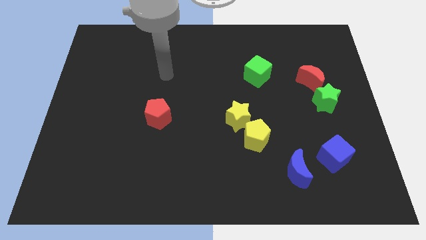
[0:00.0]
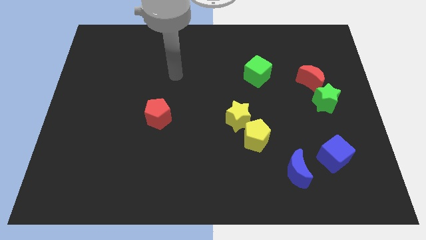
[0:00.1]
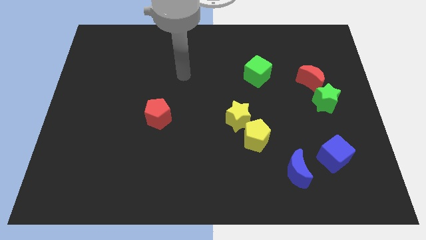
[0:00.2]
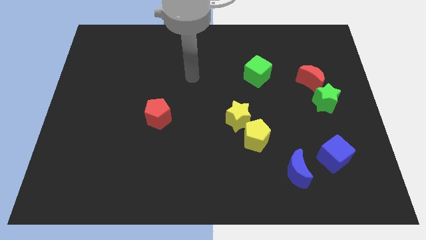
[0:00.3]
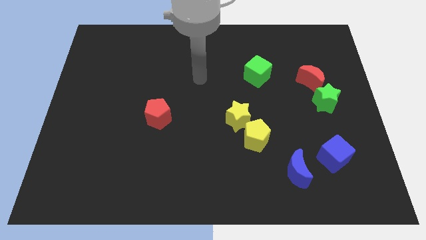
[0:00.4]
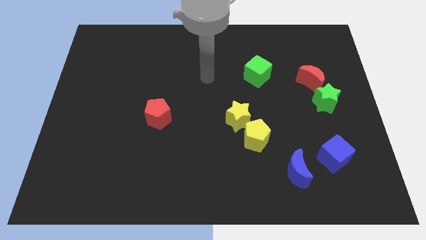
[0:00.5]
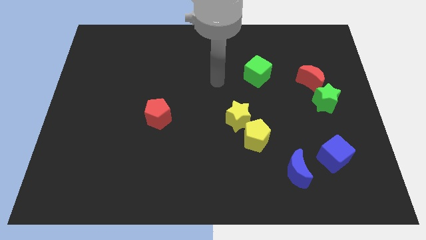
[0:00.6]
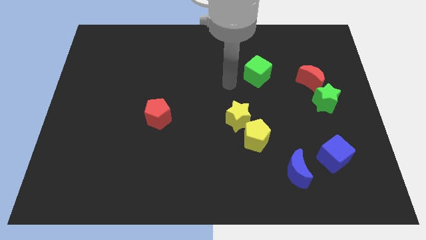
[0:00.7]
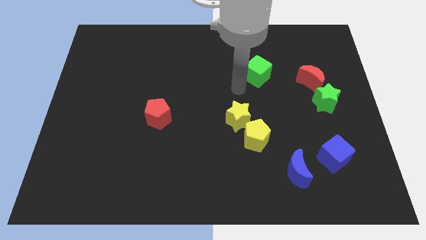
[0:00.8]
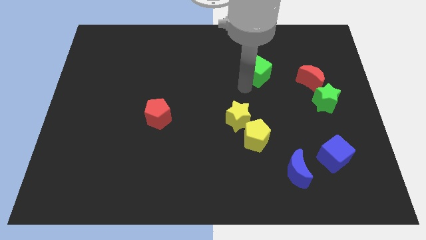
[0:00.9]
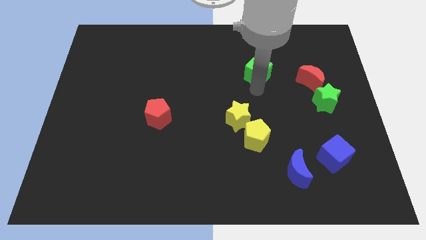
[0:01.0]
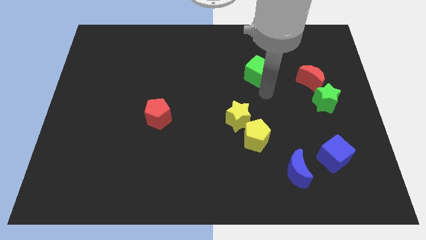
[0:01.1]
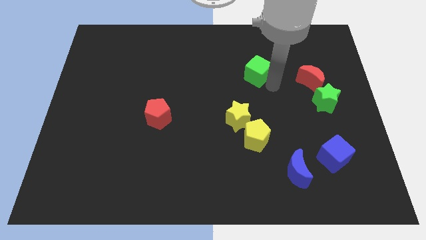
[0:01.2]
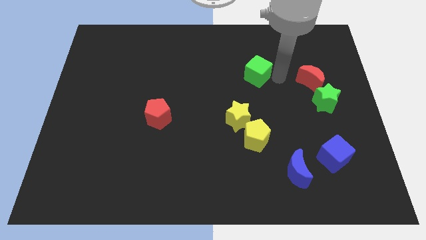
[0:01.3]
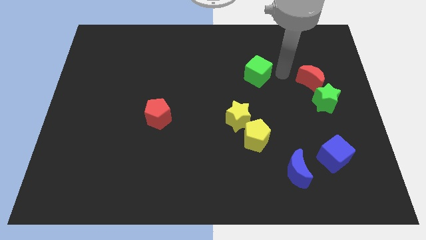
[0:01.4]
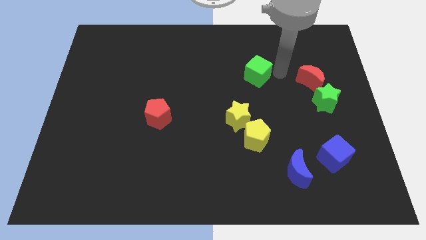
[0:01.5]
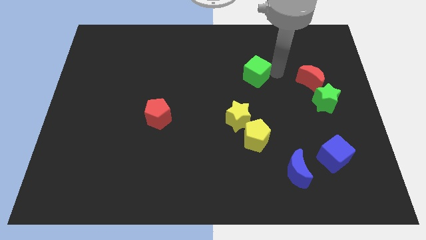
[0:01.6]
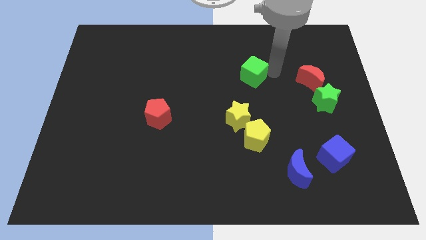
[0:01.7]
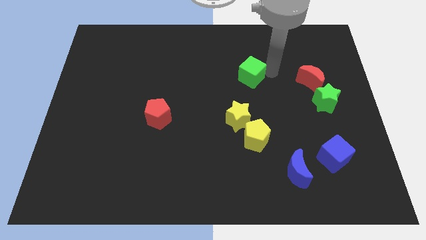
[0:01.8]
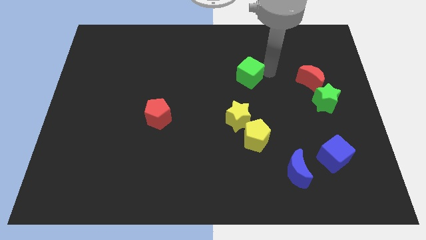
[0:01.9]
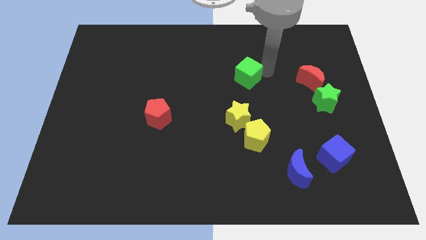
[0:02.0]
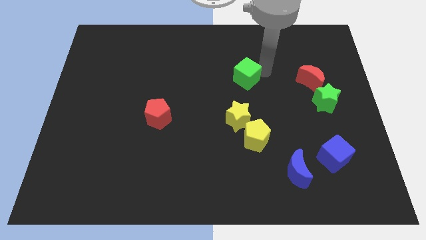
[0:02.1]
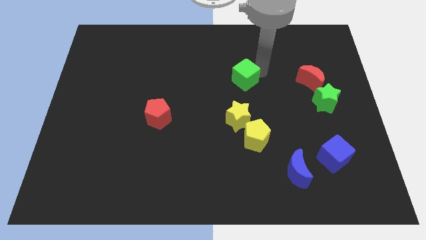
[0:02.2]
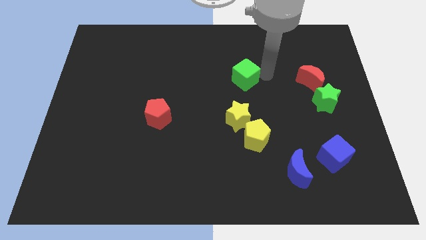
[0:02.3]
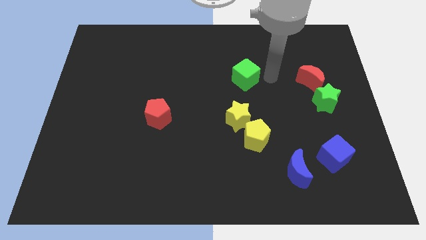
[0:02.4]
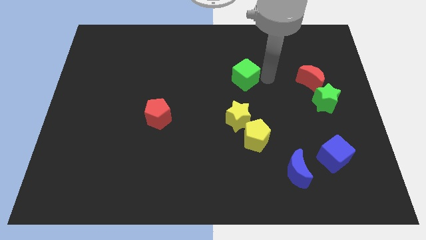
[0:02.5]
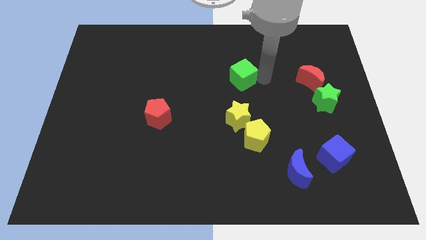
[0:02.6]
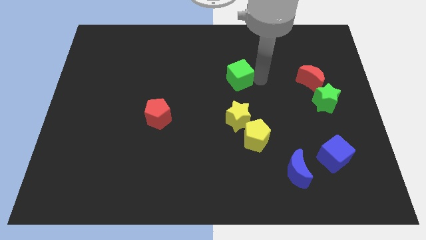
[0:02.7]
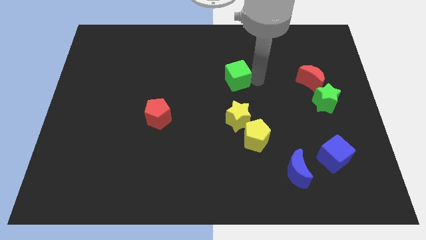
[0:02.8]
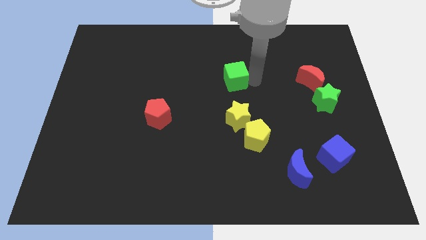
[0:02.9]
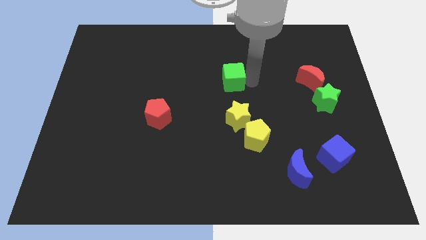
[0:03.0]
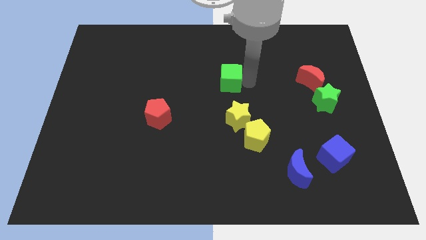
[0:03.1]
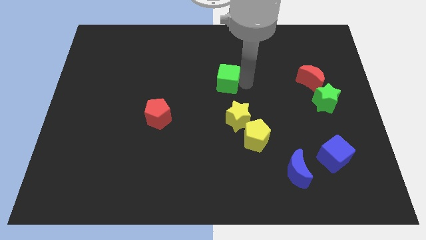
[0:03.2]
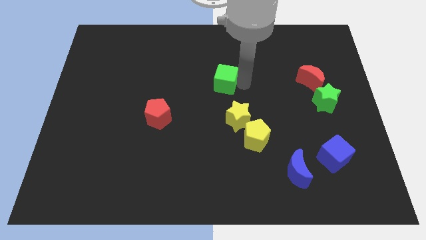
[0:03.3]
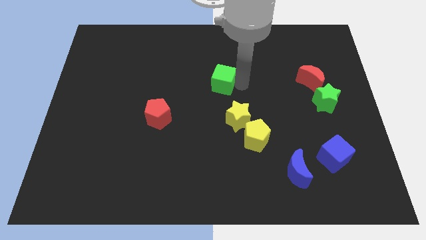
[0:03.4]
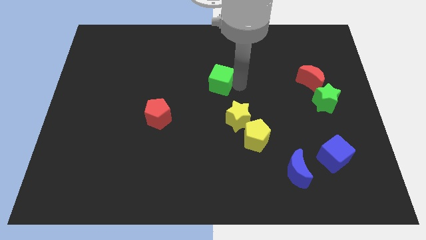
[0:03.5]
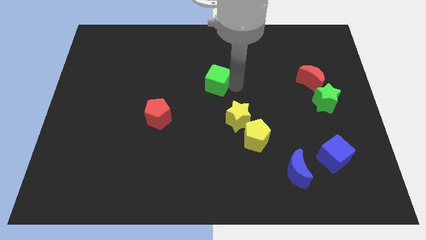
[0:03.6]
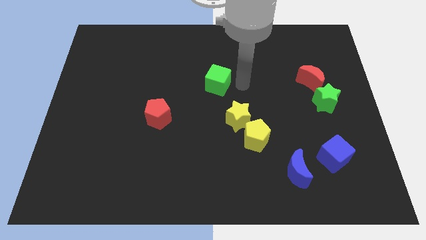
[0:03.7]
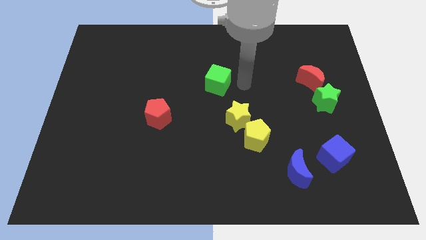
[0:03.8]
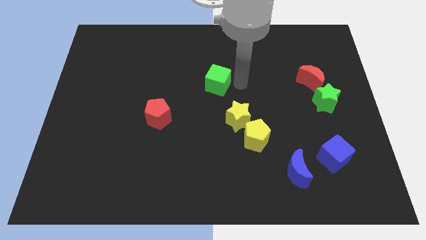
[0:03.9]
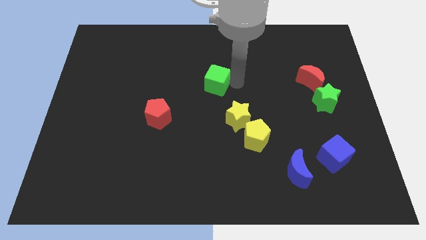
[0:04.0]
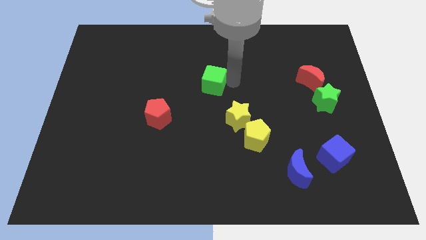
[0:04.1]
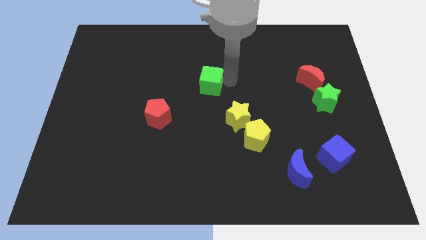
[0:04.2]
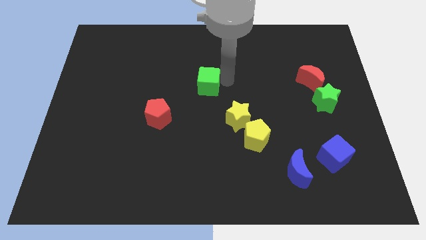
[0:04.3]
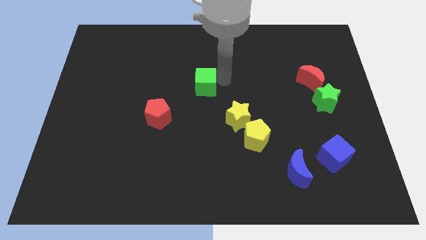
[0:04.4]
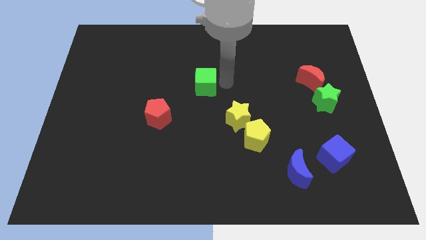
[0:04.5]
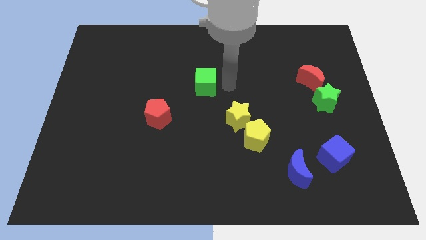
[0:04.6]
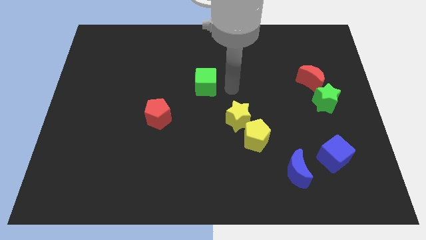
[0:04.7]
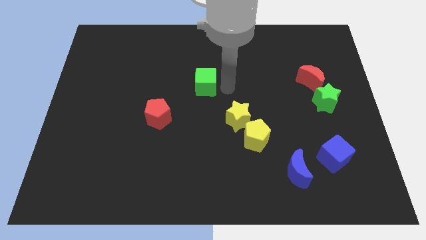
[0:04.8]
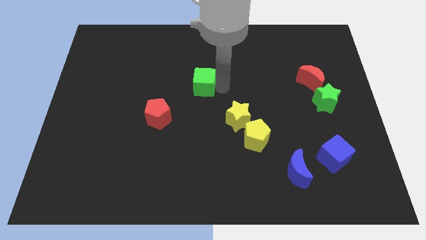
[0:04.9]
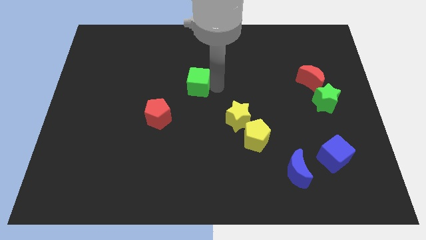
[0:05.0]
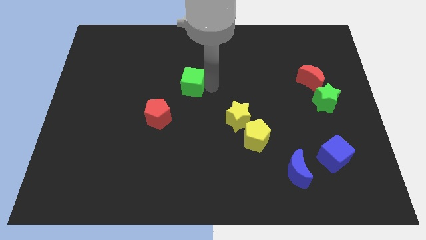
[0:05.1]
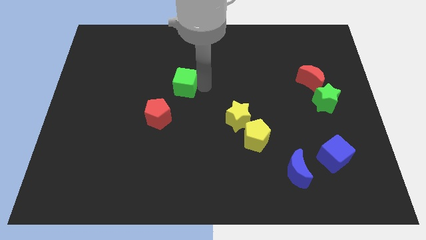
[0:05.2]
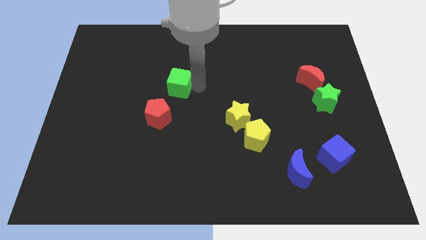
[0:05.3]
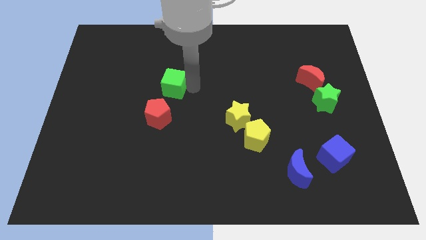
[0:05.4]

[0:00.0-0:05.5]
slide the green cube left

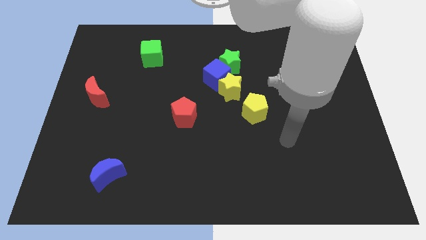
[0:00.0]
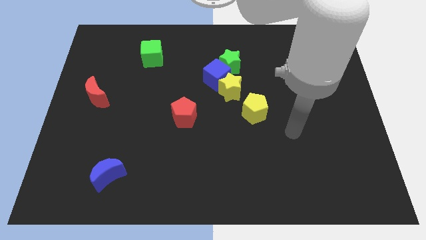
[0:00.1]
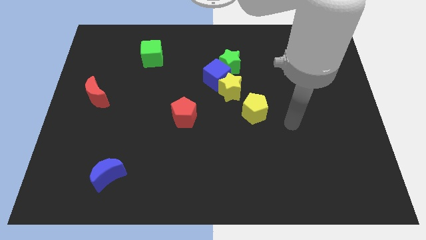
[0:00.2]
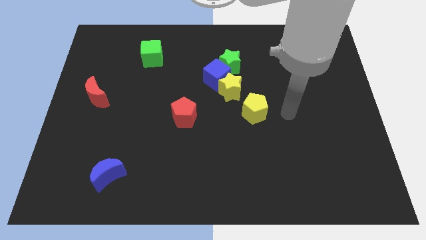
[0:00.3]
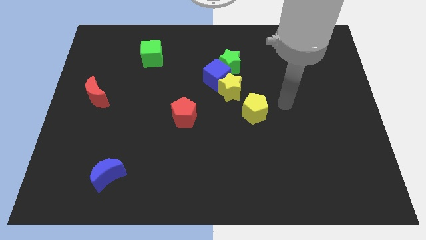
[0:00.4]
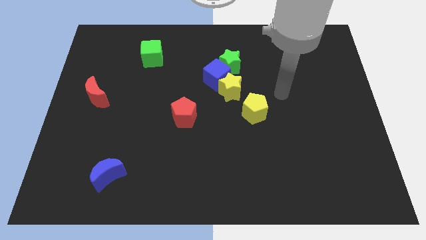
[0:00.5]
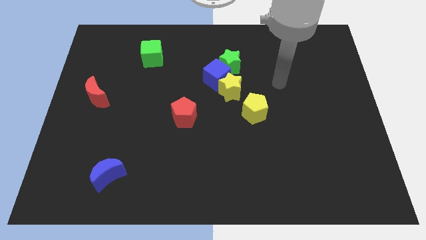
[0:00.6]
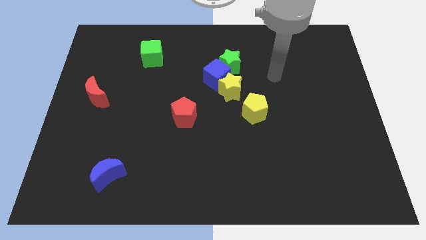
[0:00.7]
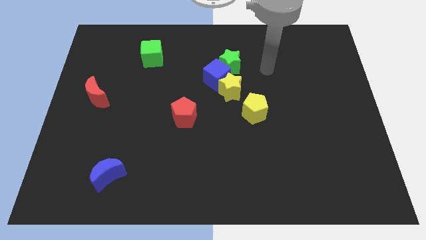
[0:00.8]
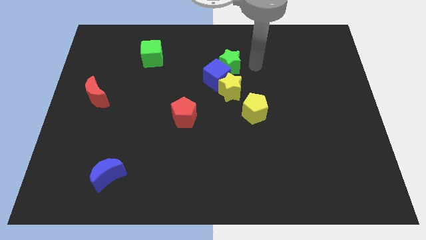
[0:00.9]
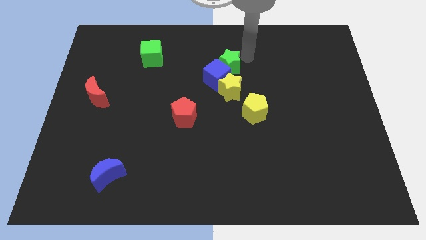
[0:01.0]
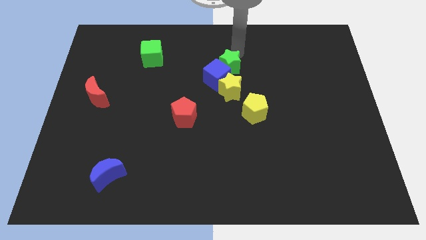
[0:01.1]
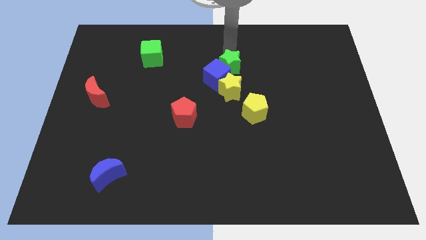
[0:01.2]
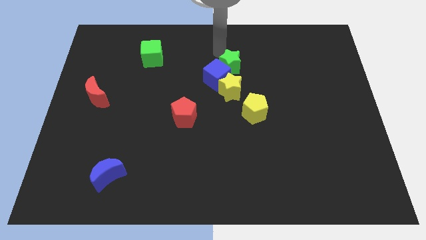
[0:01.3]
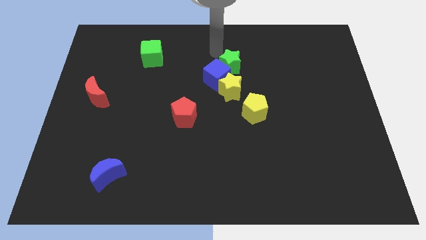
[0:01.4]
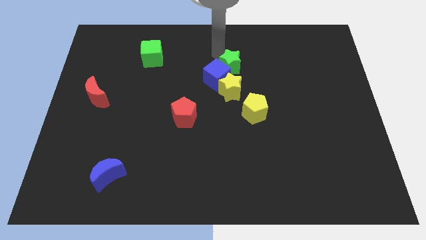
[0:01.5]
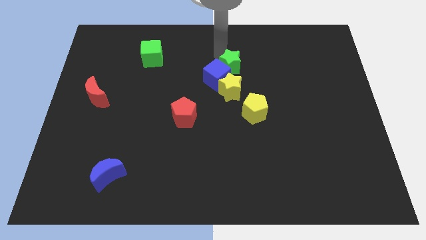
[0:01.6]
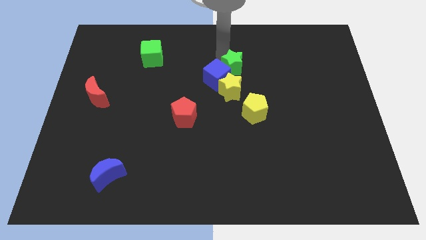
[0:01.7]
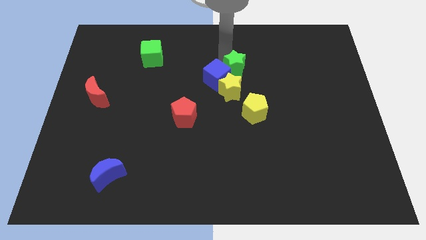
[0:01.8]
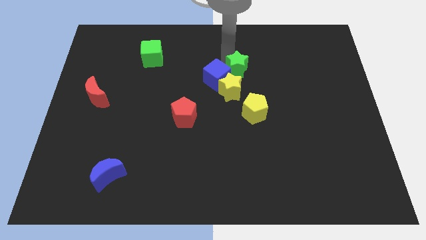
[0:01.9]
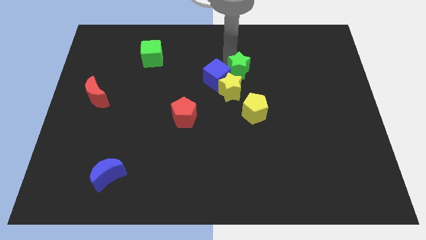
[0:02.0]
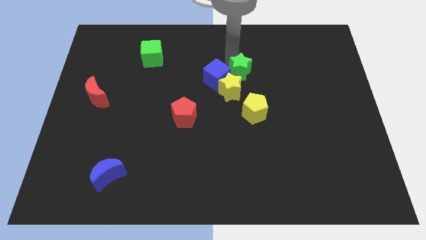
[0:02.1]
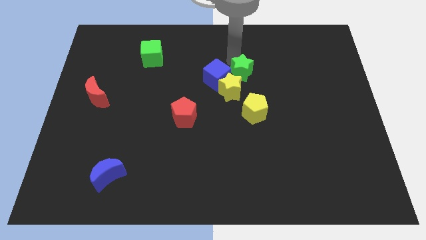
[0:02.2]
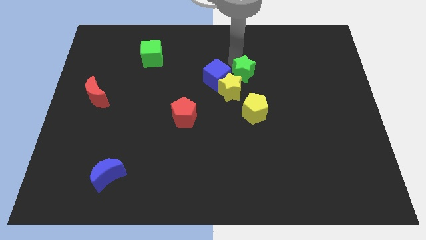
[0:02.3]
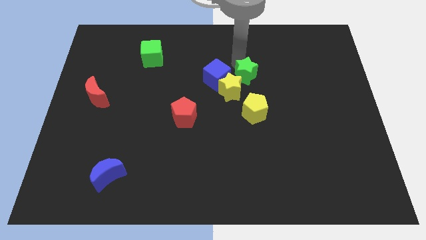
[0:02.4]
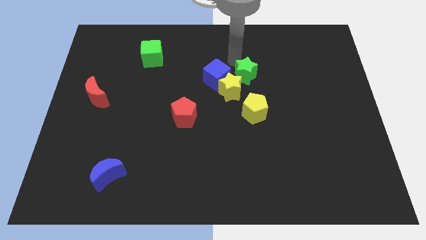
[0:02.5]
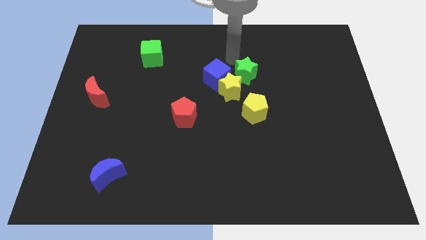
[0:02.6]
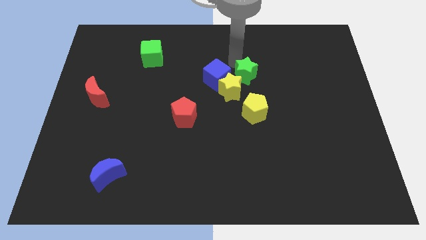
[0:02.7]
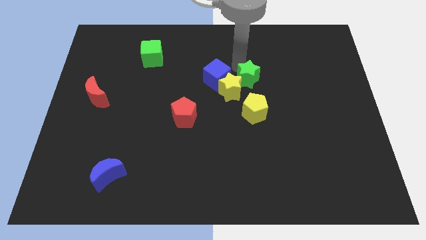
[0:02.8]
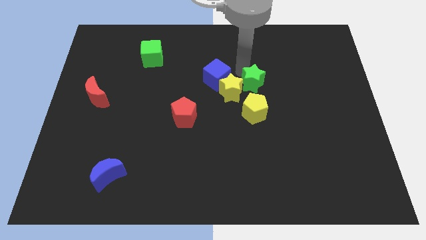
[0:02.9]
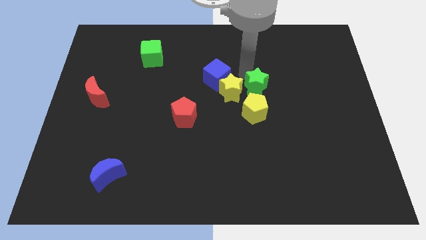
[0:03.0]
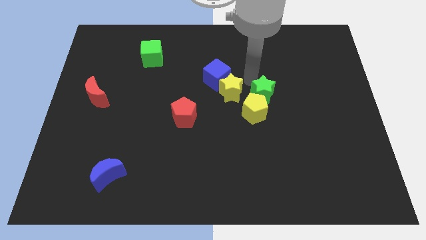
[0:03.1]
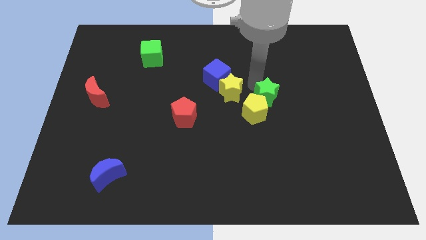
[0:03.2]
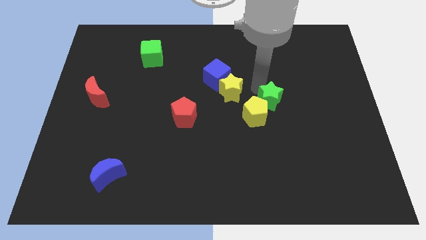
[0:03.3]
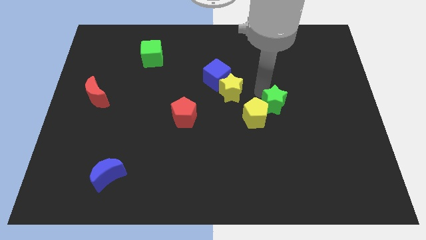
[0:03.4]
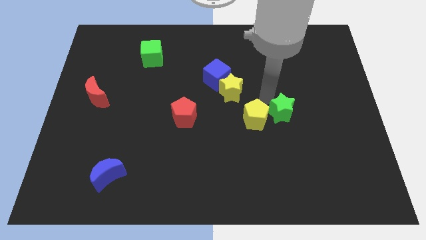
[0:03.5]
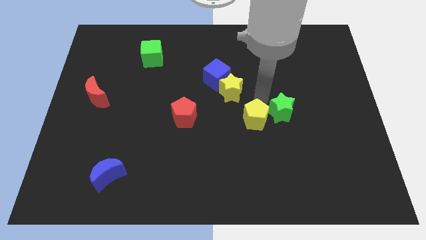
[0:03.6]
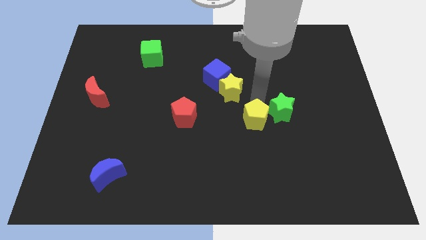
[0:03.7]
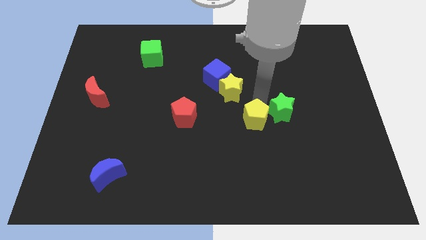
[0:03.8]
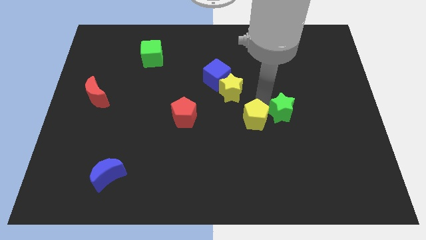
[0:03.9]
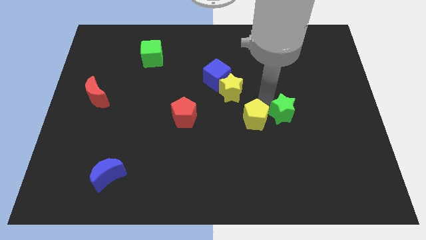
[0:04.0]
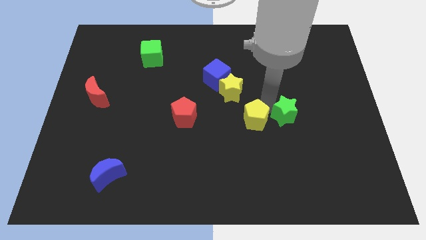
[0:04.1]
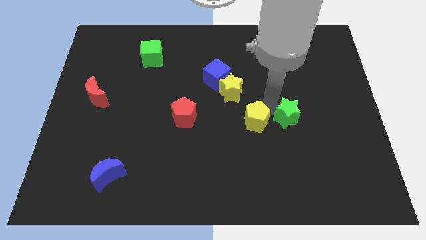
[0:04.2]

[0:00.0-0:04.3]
move the green star downwards and to the right
